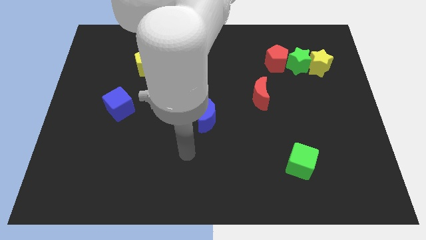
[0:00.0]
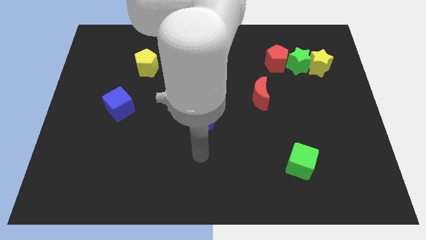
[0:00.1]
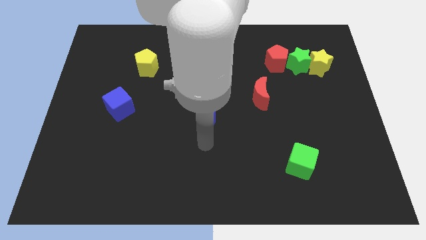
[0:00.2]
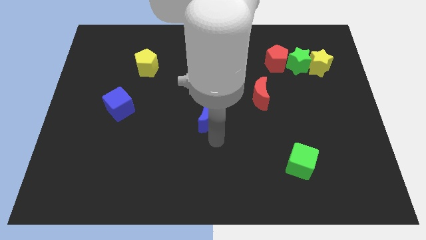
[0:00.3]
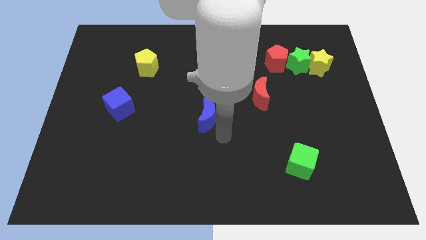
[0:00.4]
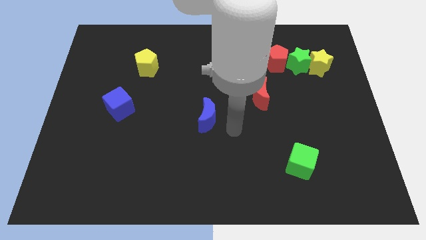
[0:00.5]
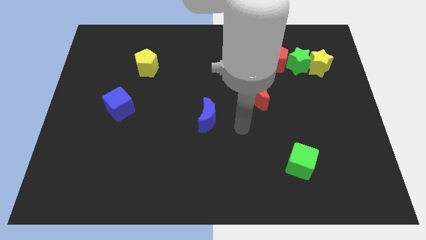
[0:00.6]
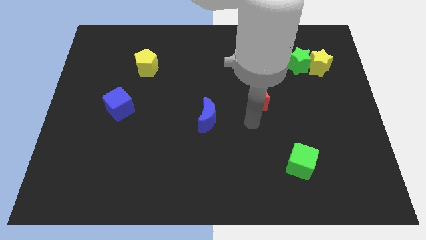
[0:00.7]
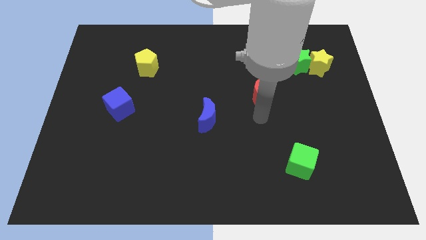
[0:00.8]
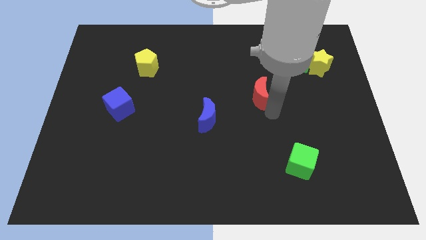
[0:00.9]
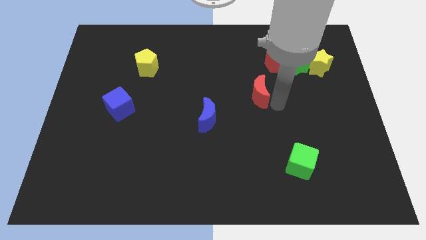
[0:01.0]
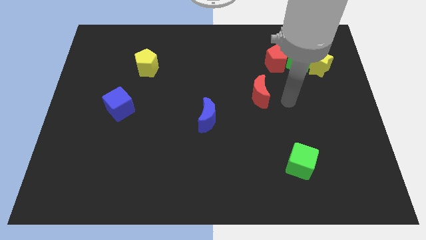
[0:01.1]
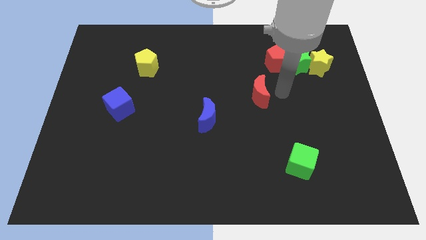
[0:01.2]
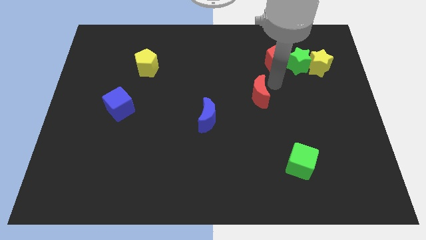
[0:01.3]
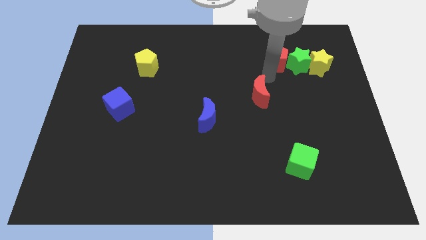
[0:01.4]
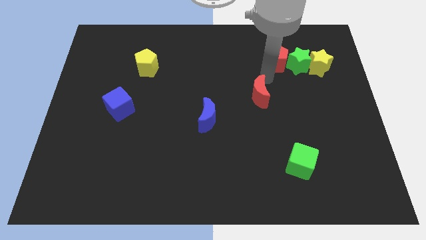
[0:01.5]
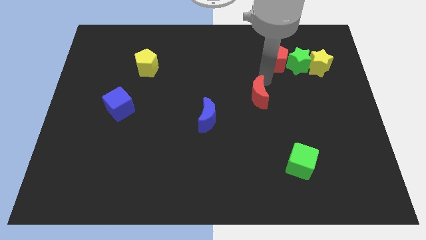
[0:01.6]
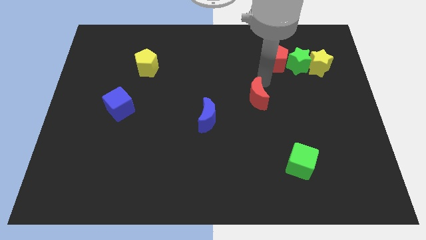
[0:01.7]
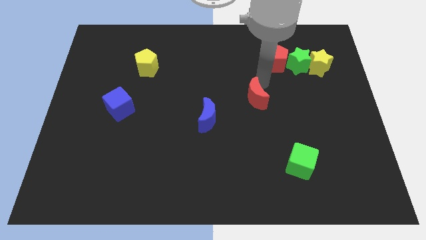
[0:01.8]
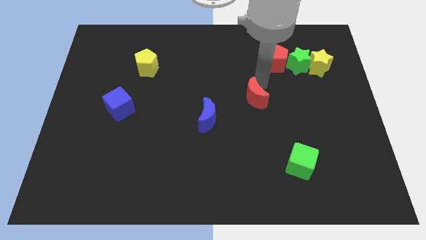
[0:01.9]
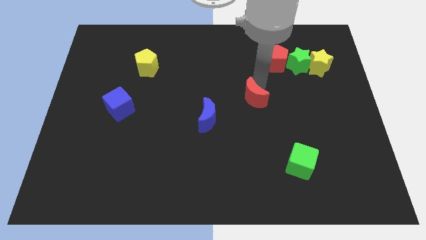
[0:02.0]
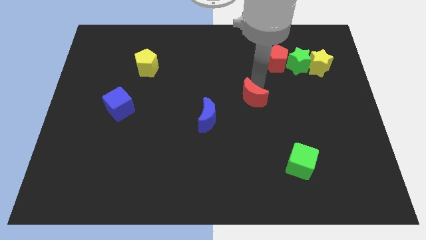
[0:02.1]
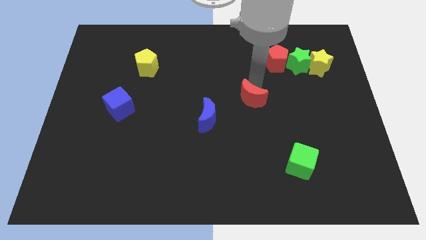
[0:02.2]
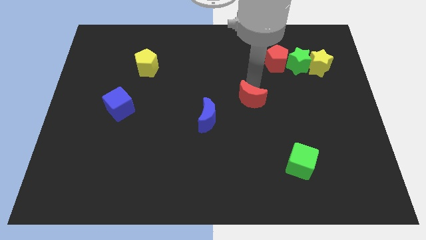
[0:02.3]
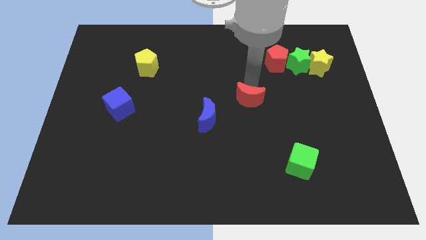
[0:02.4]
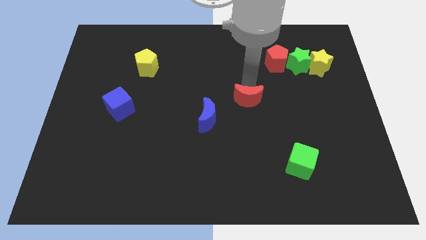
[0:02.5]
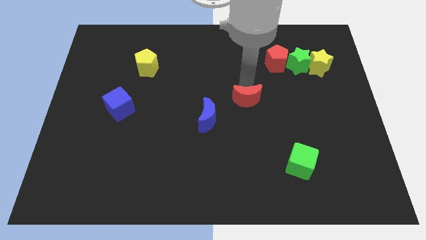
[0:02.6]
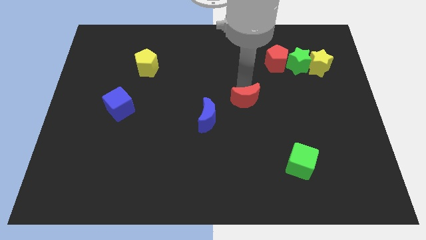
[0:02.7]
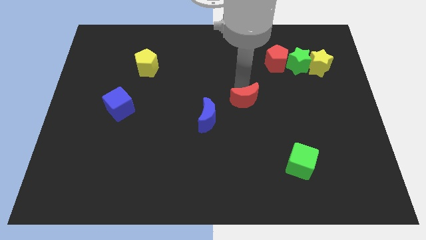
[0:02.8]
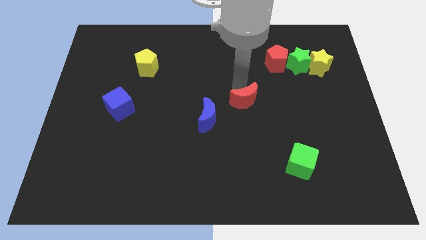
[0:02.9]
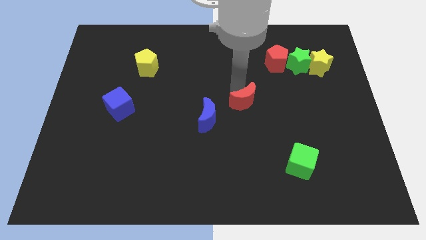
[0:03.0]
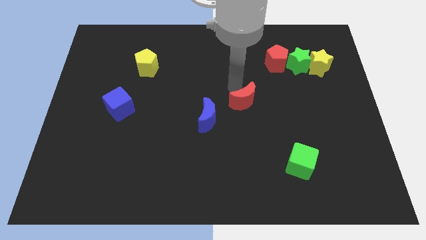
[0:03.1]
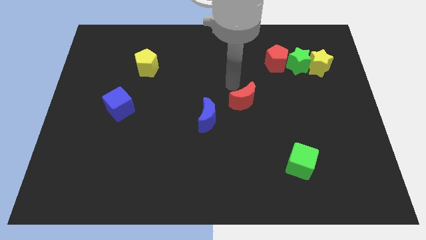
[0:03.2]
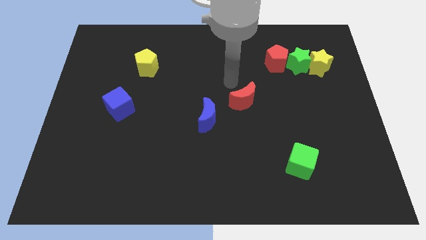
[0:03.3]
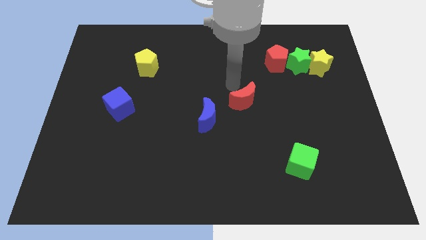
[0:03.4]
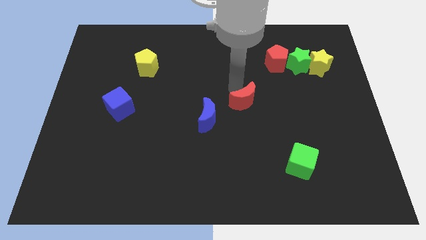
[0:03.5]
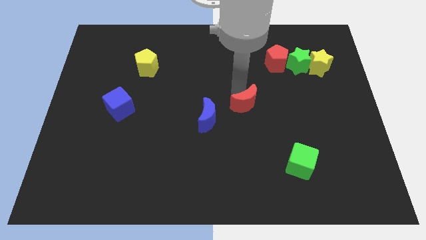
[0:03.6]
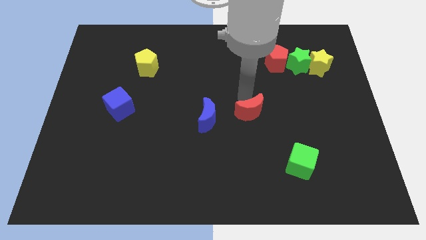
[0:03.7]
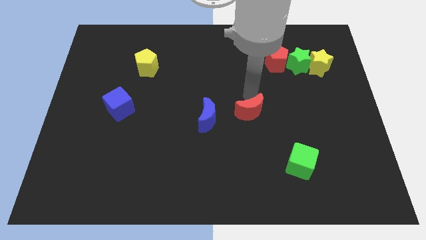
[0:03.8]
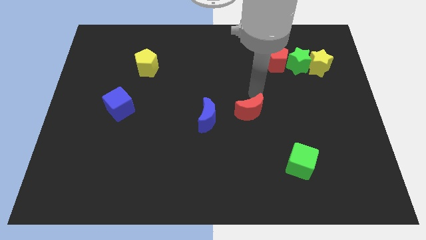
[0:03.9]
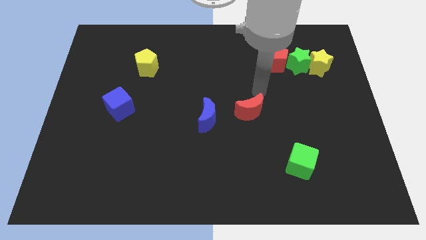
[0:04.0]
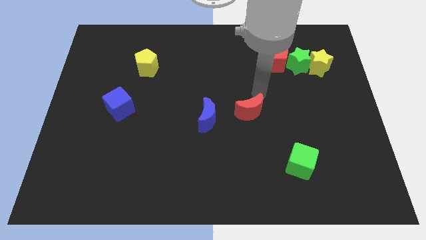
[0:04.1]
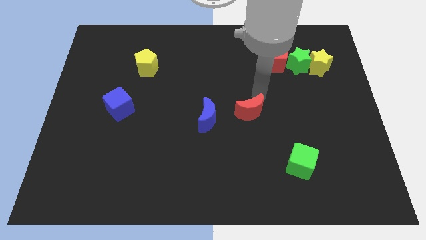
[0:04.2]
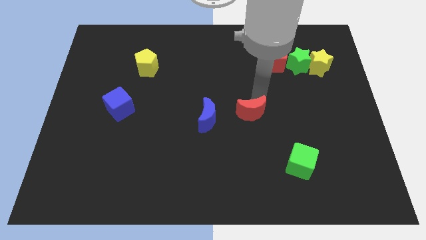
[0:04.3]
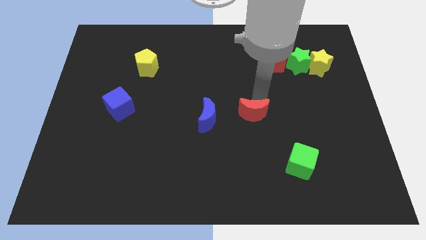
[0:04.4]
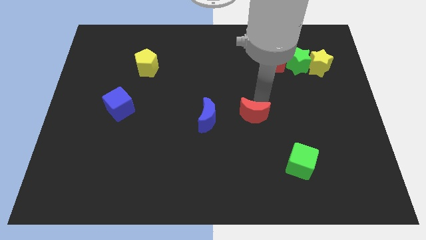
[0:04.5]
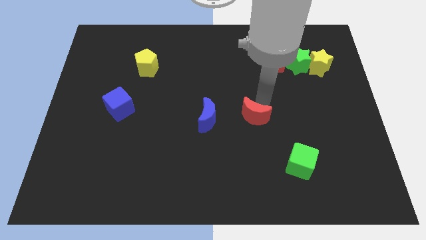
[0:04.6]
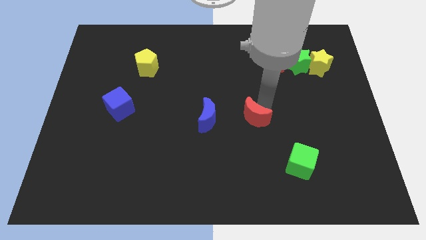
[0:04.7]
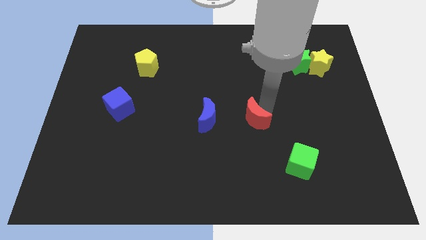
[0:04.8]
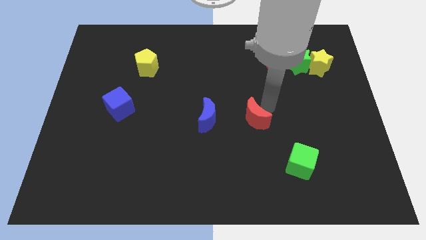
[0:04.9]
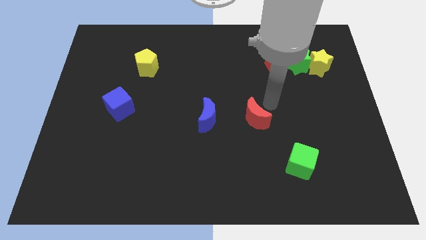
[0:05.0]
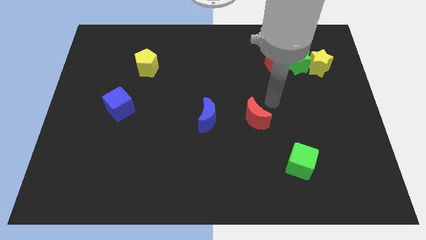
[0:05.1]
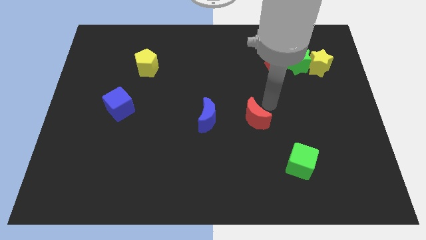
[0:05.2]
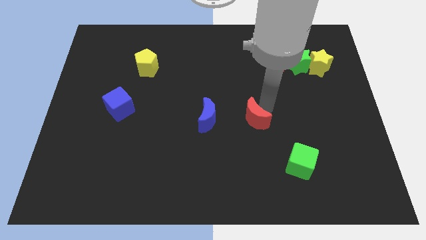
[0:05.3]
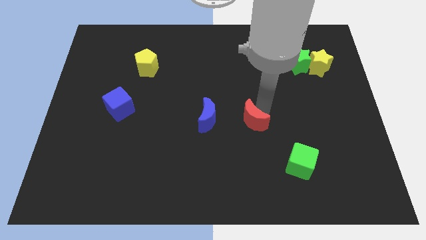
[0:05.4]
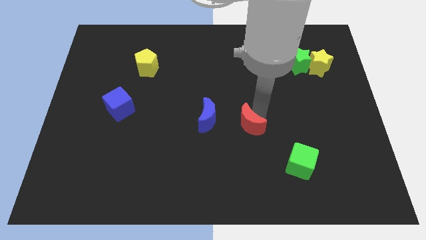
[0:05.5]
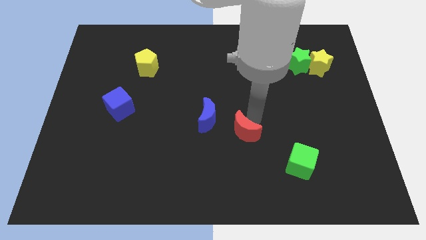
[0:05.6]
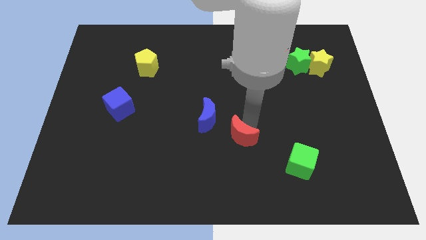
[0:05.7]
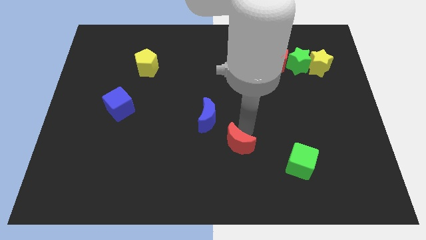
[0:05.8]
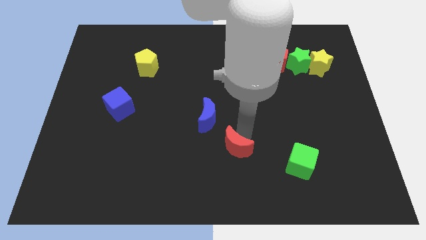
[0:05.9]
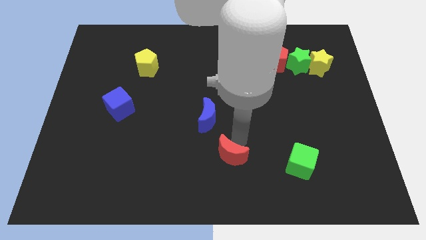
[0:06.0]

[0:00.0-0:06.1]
move the red moon to the bottom
